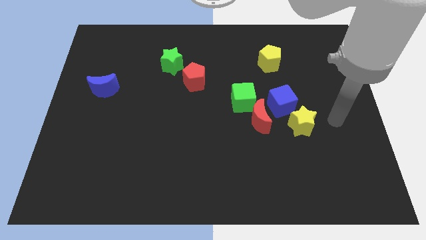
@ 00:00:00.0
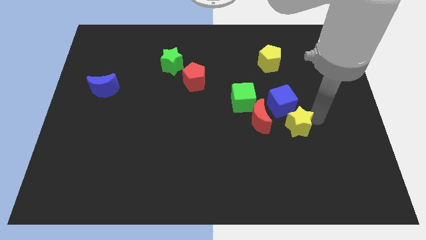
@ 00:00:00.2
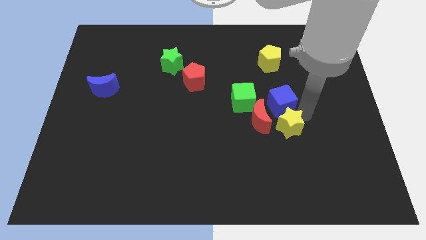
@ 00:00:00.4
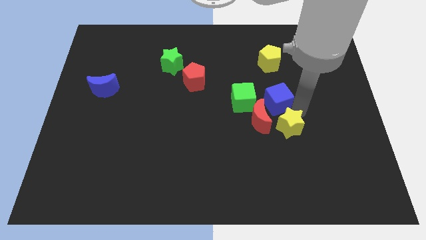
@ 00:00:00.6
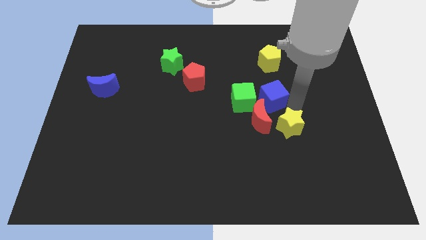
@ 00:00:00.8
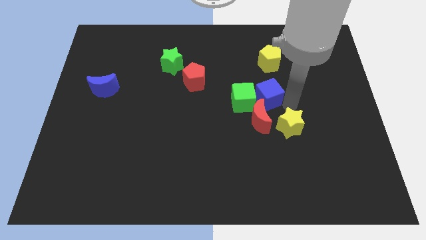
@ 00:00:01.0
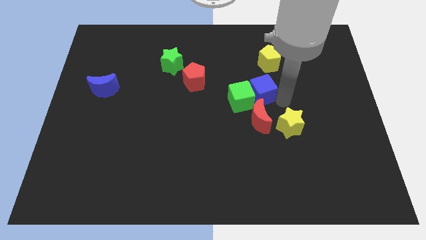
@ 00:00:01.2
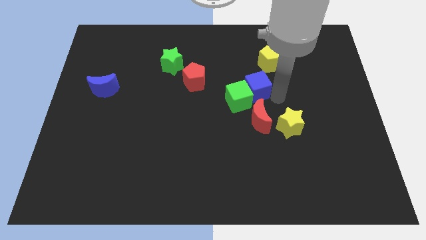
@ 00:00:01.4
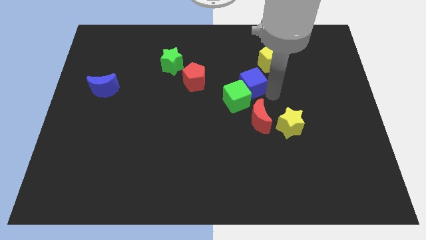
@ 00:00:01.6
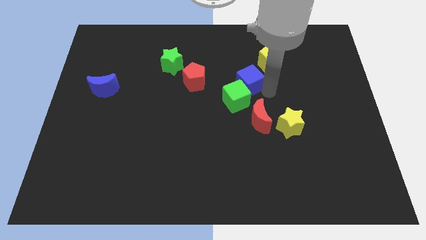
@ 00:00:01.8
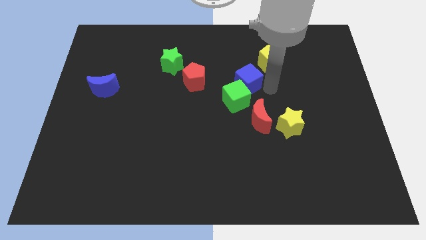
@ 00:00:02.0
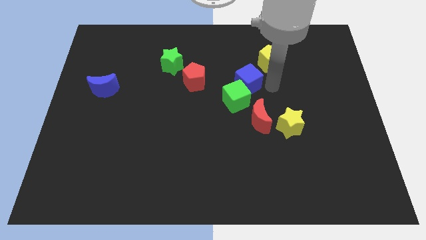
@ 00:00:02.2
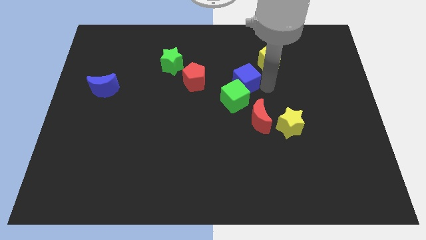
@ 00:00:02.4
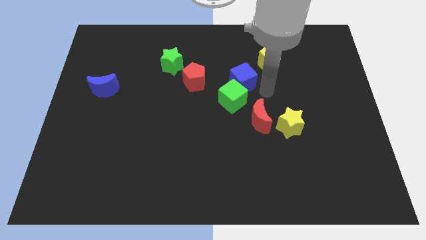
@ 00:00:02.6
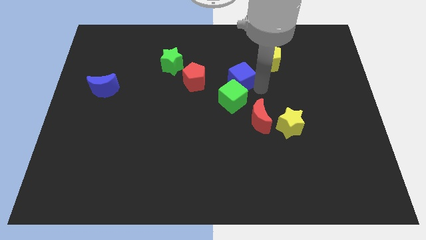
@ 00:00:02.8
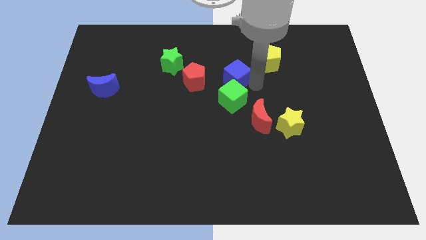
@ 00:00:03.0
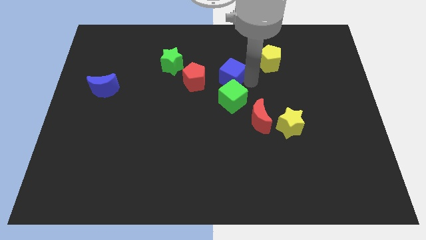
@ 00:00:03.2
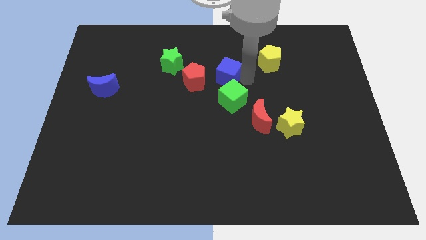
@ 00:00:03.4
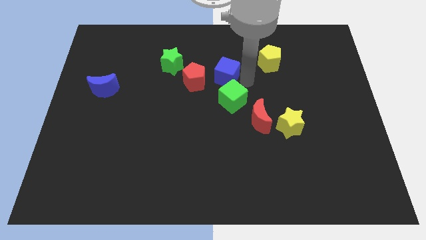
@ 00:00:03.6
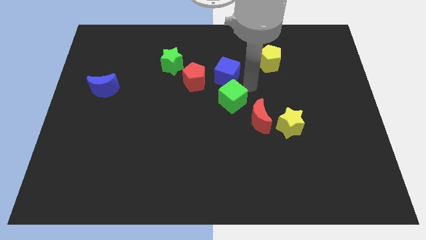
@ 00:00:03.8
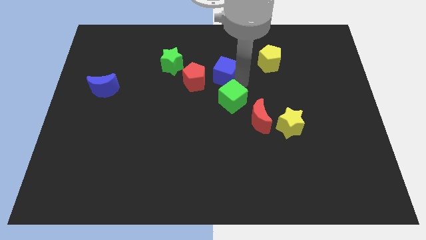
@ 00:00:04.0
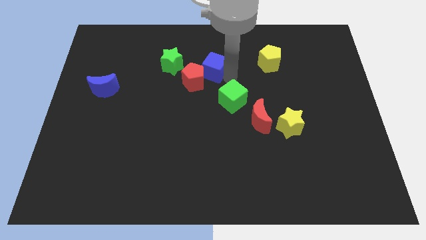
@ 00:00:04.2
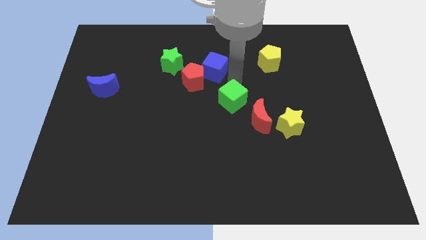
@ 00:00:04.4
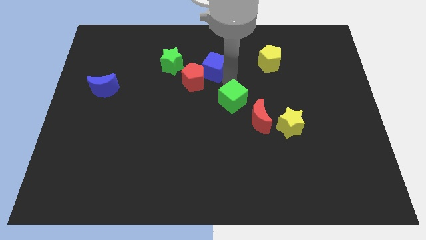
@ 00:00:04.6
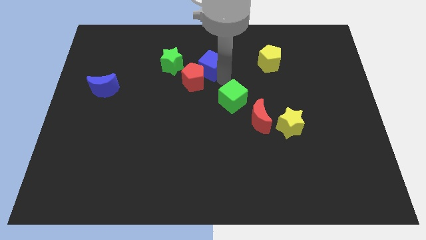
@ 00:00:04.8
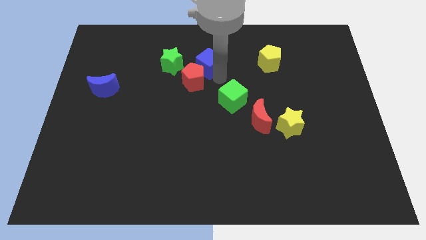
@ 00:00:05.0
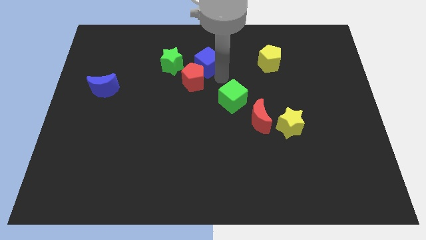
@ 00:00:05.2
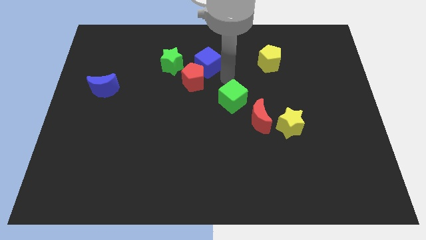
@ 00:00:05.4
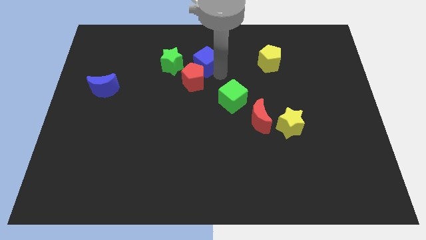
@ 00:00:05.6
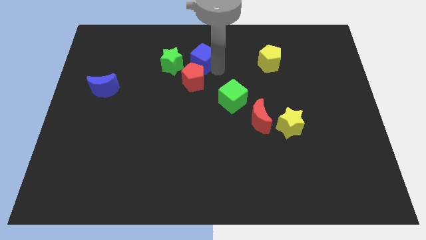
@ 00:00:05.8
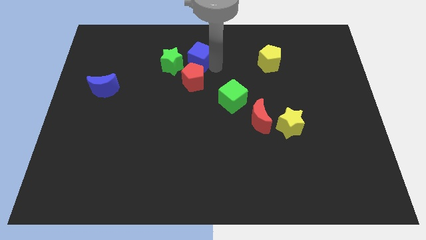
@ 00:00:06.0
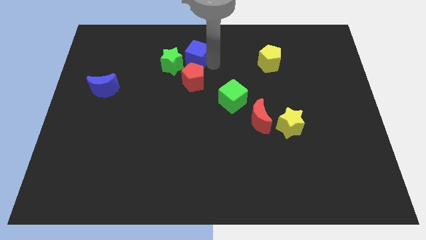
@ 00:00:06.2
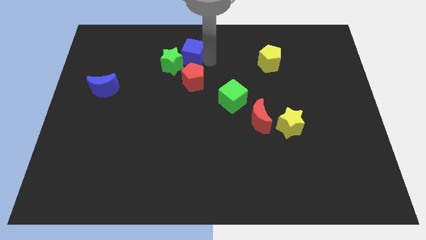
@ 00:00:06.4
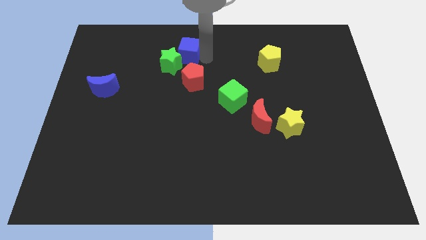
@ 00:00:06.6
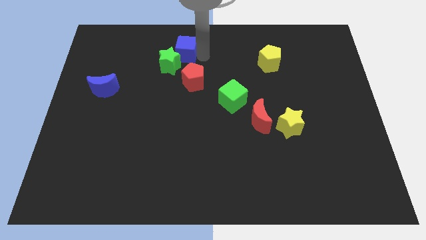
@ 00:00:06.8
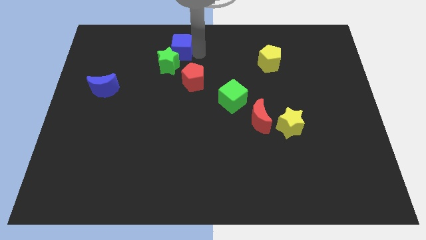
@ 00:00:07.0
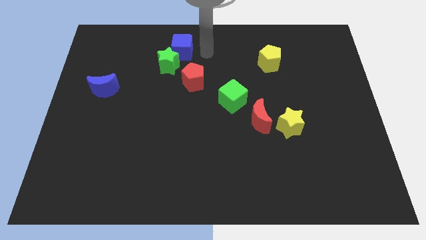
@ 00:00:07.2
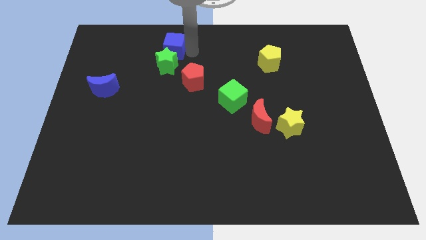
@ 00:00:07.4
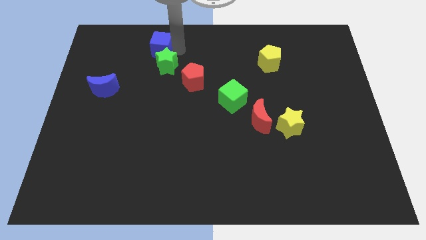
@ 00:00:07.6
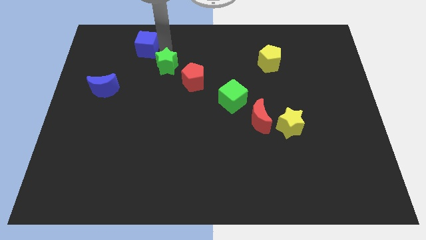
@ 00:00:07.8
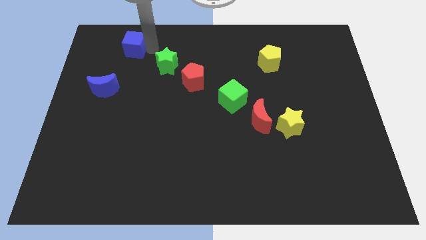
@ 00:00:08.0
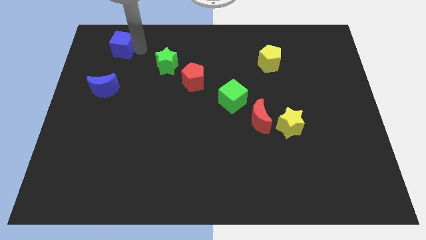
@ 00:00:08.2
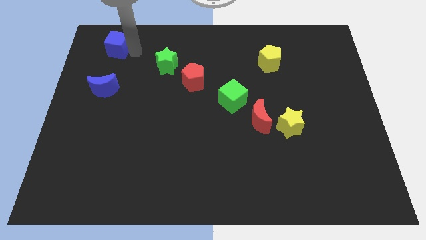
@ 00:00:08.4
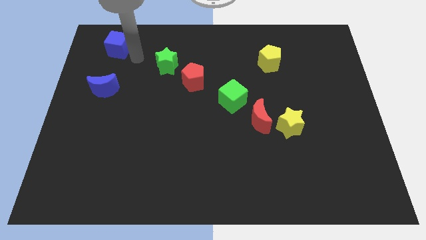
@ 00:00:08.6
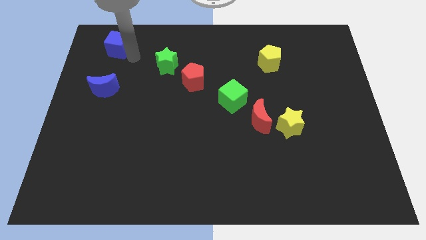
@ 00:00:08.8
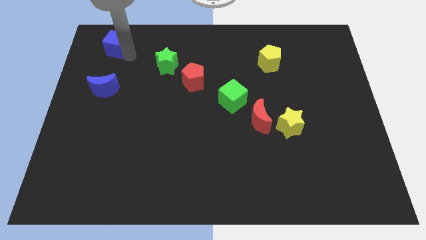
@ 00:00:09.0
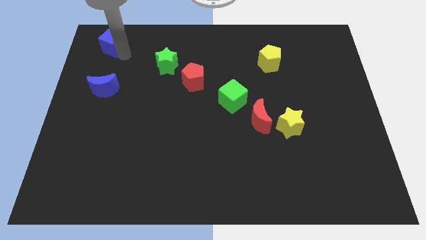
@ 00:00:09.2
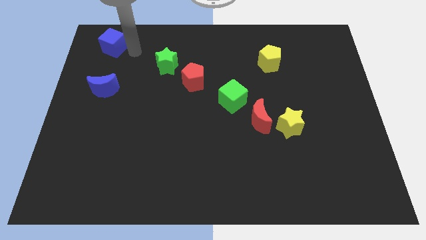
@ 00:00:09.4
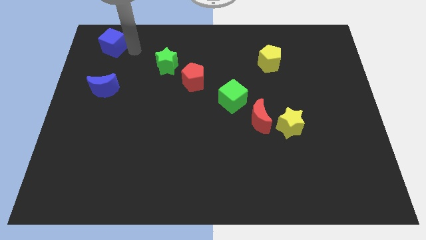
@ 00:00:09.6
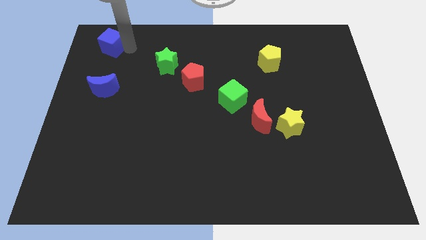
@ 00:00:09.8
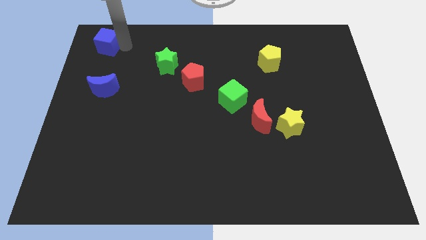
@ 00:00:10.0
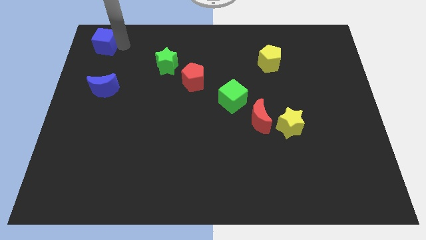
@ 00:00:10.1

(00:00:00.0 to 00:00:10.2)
move the blue cube to the top left
